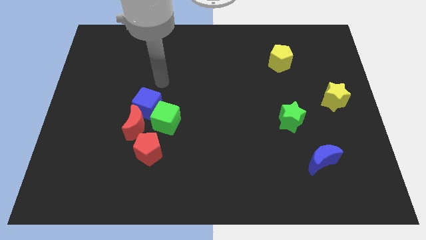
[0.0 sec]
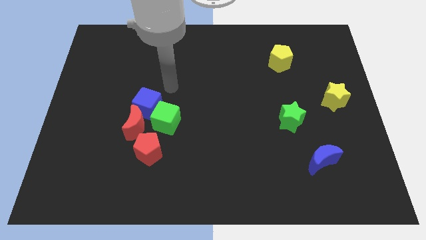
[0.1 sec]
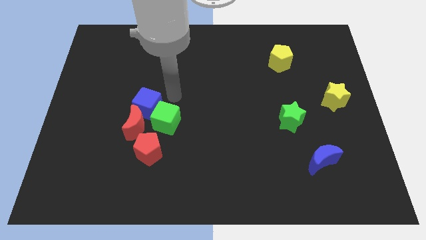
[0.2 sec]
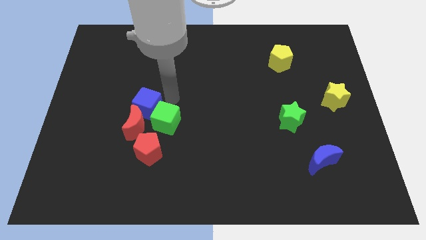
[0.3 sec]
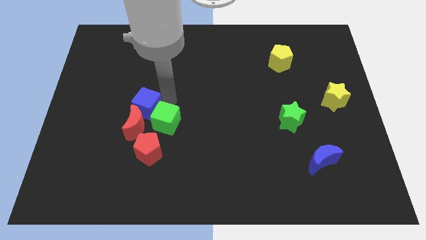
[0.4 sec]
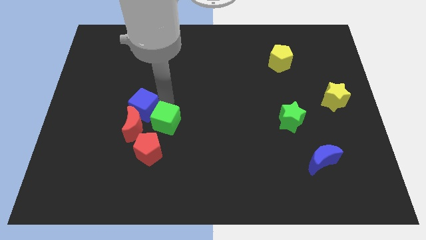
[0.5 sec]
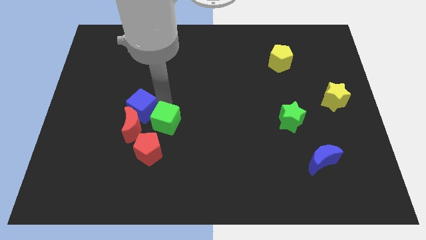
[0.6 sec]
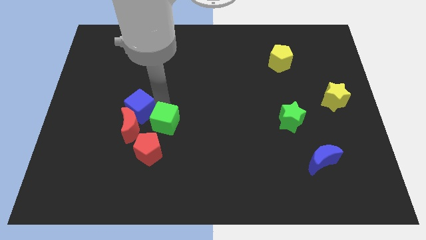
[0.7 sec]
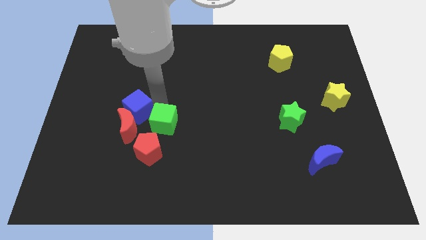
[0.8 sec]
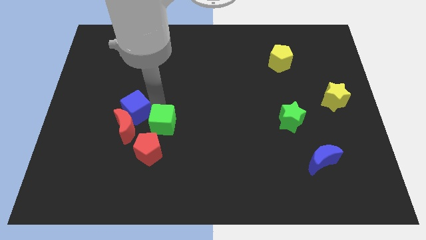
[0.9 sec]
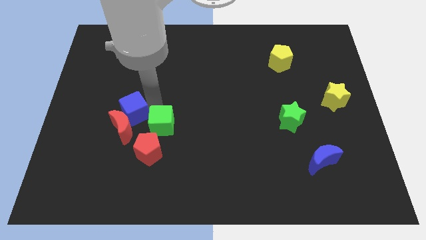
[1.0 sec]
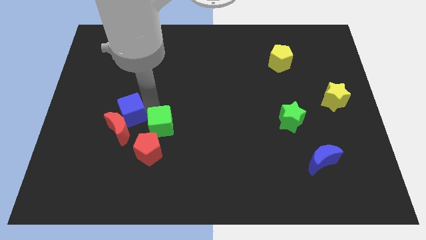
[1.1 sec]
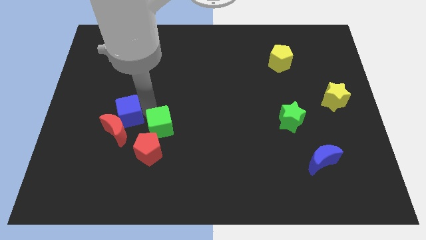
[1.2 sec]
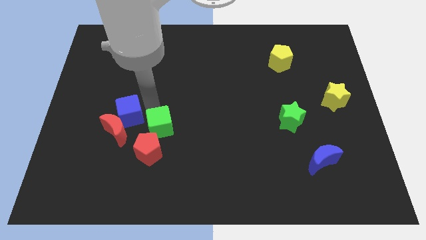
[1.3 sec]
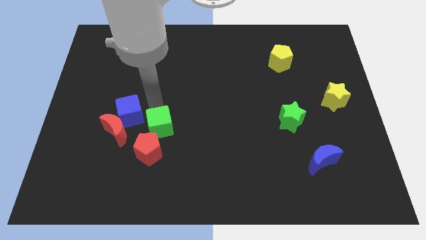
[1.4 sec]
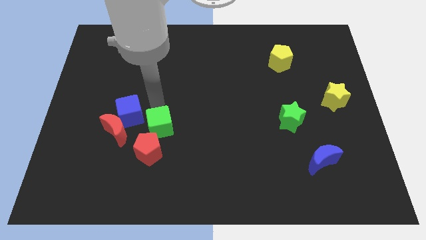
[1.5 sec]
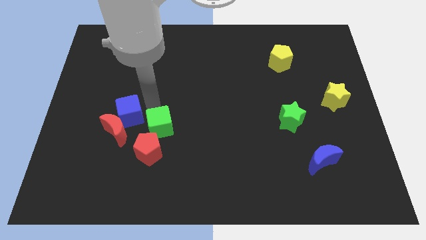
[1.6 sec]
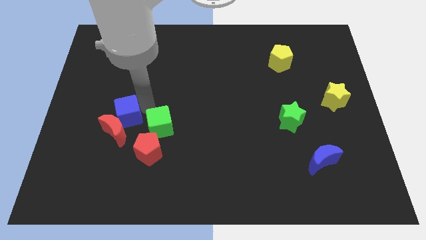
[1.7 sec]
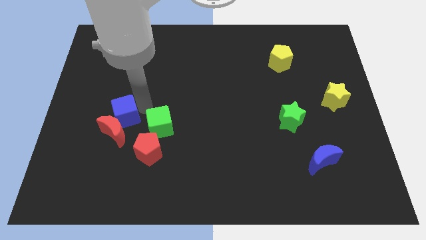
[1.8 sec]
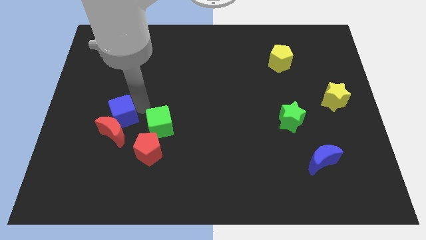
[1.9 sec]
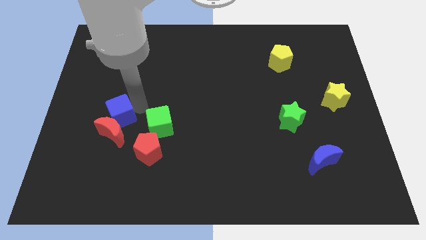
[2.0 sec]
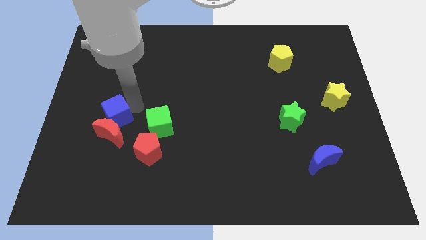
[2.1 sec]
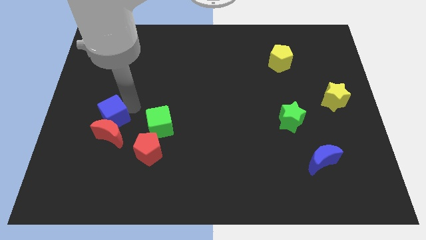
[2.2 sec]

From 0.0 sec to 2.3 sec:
slide the blue cube a little diagonally down and to the left

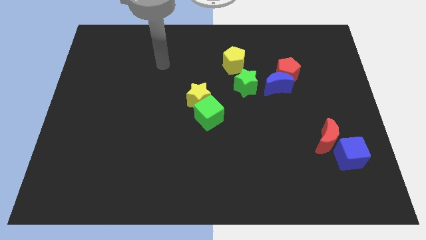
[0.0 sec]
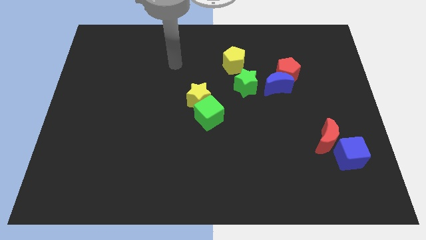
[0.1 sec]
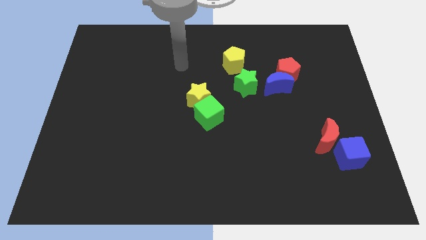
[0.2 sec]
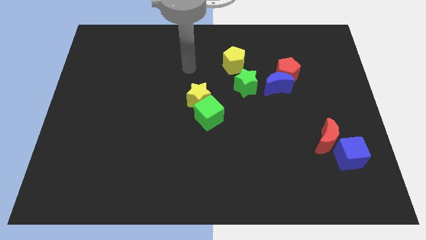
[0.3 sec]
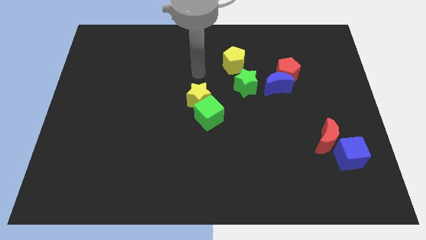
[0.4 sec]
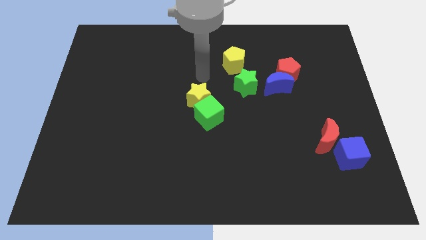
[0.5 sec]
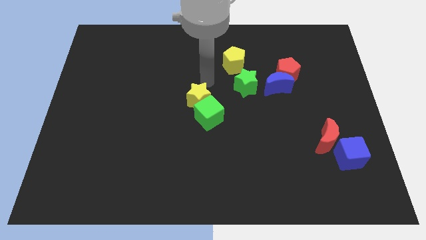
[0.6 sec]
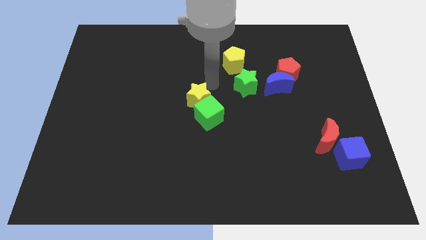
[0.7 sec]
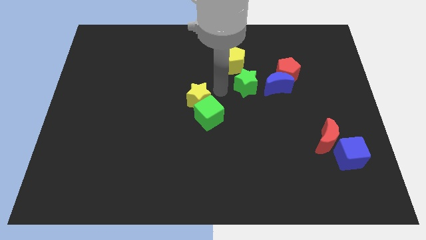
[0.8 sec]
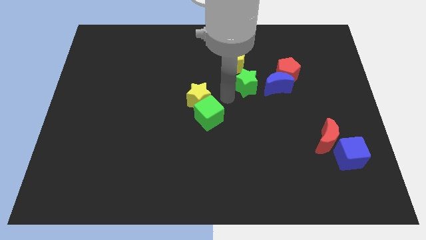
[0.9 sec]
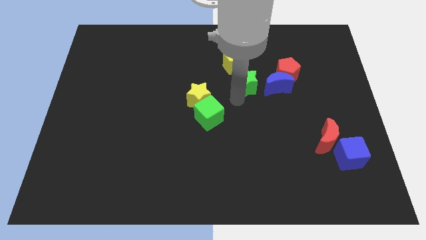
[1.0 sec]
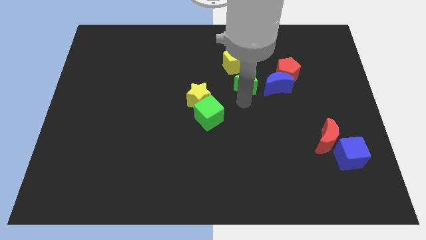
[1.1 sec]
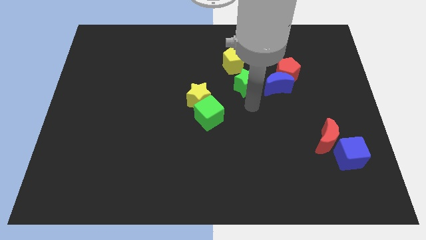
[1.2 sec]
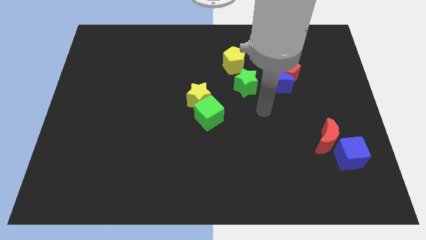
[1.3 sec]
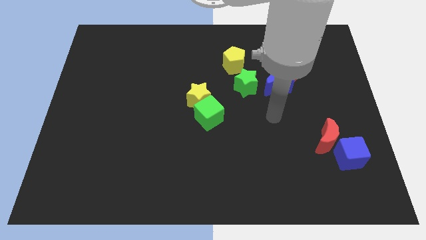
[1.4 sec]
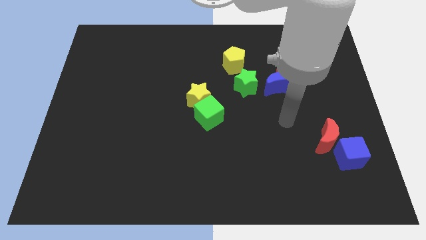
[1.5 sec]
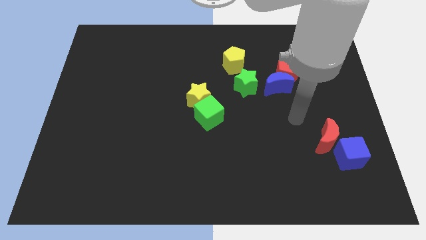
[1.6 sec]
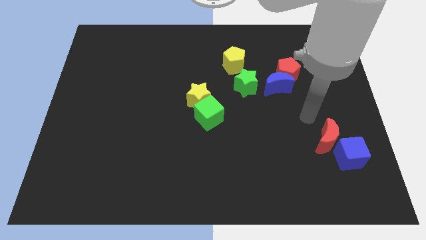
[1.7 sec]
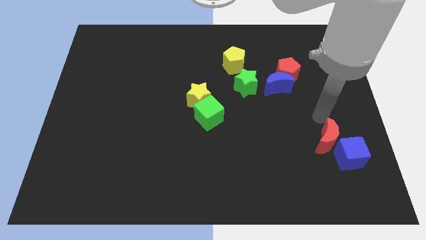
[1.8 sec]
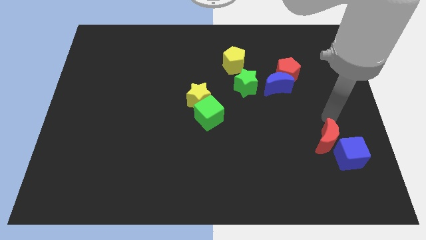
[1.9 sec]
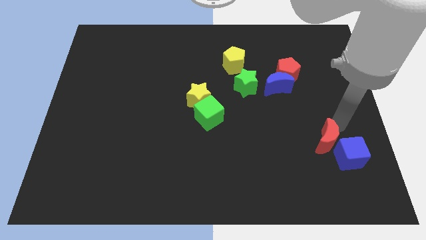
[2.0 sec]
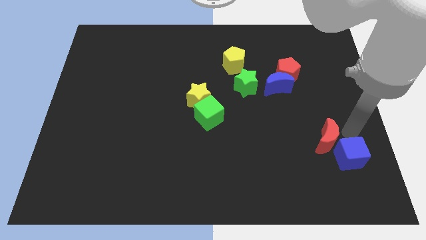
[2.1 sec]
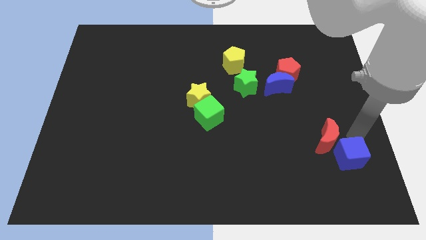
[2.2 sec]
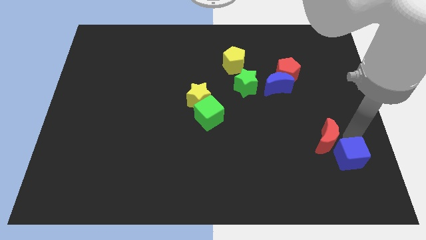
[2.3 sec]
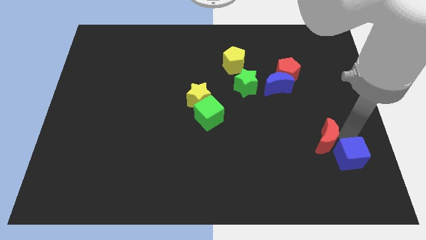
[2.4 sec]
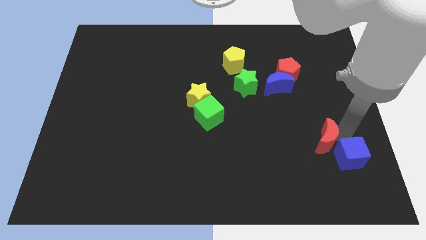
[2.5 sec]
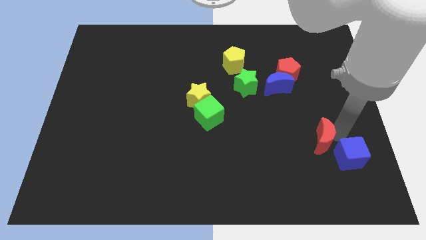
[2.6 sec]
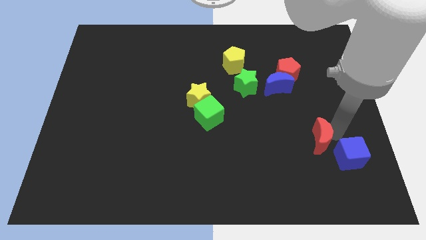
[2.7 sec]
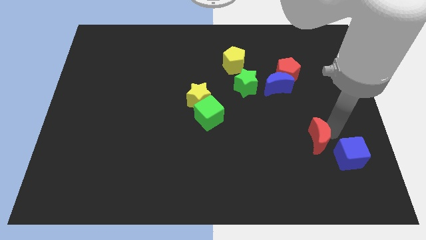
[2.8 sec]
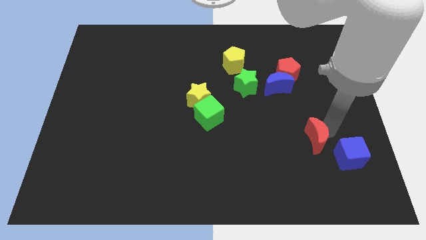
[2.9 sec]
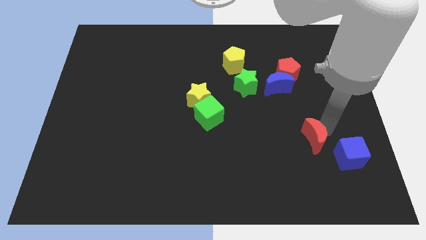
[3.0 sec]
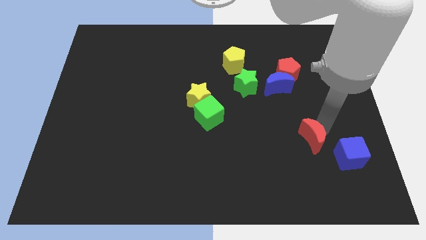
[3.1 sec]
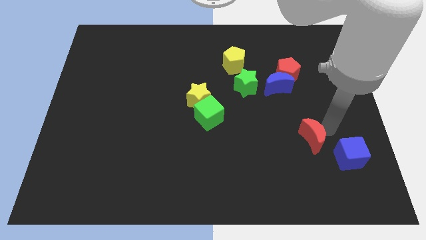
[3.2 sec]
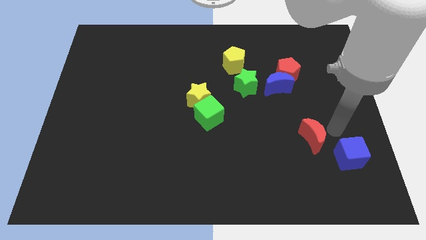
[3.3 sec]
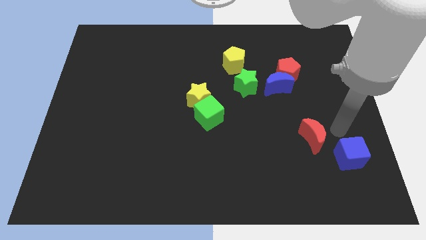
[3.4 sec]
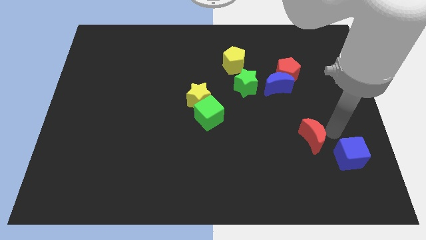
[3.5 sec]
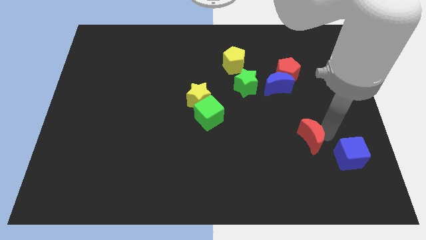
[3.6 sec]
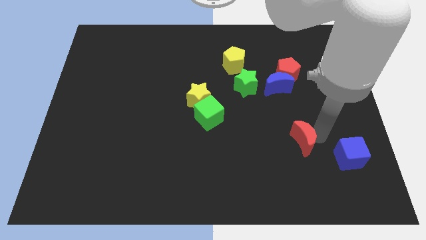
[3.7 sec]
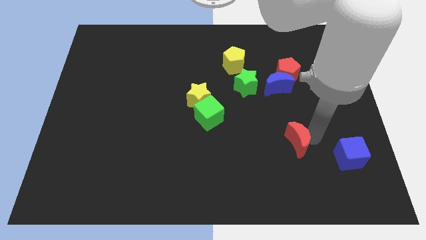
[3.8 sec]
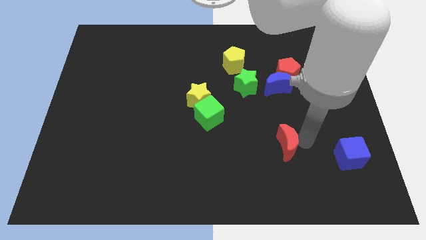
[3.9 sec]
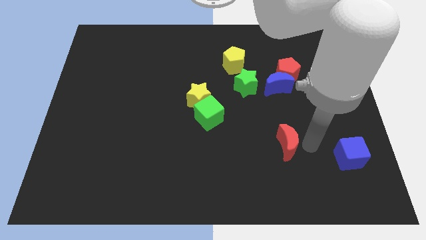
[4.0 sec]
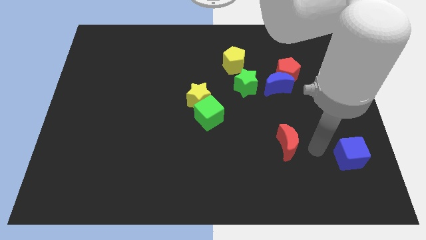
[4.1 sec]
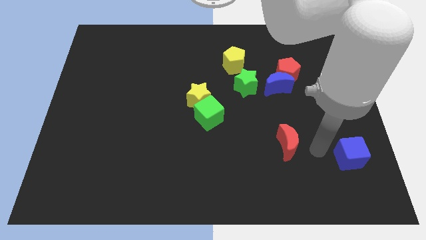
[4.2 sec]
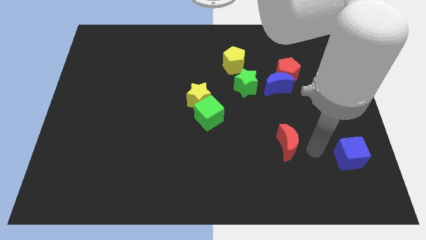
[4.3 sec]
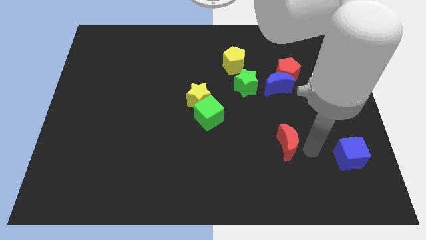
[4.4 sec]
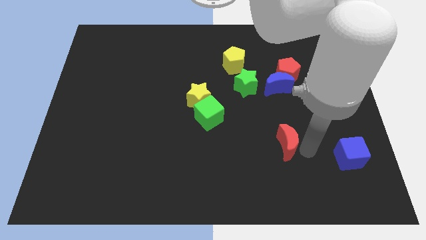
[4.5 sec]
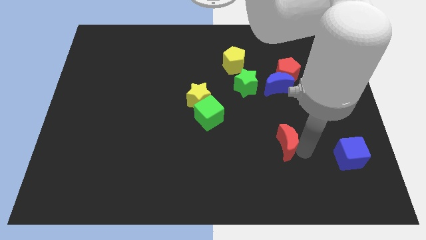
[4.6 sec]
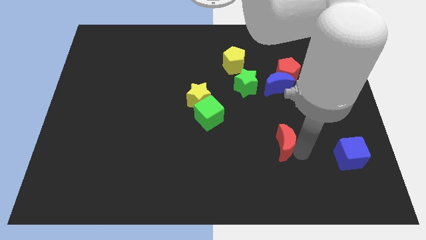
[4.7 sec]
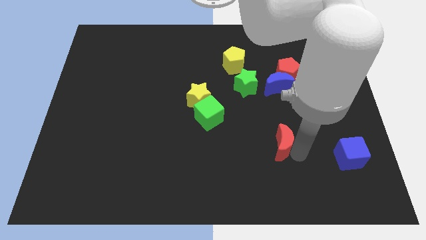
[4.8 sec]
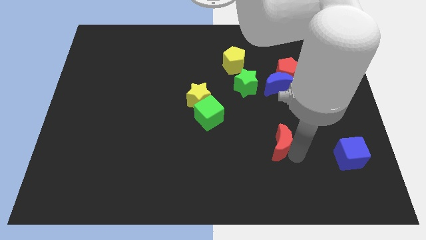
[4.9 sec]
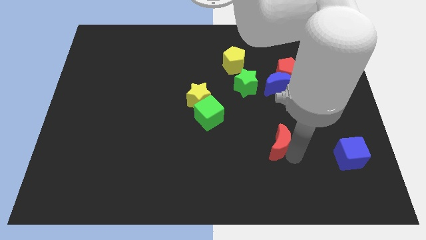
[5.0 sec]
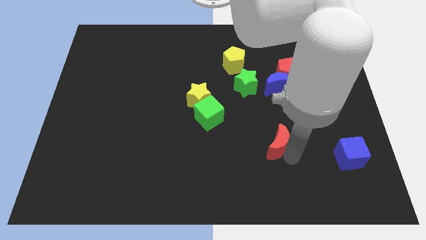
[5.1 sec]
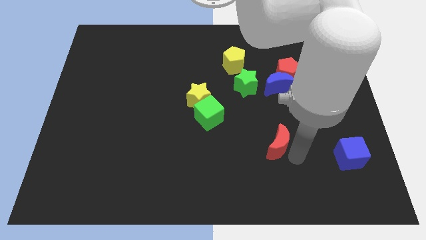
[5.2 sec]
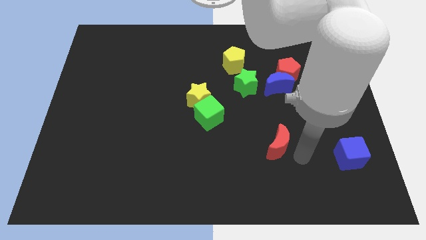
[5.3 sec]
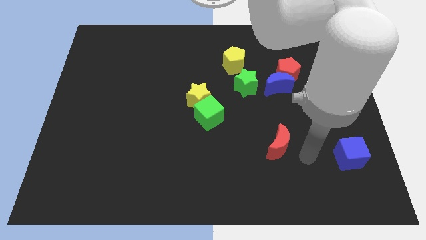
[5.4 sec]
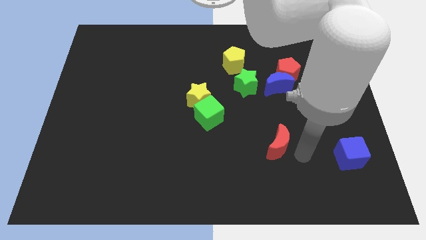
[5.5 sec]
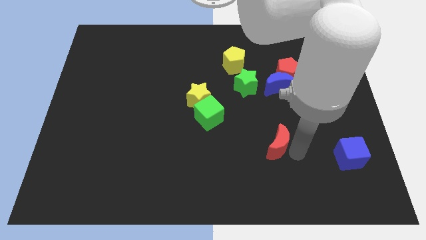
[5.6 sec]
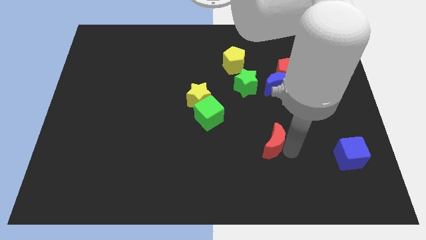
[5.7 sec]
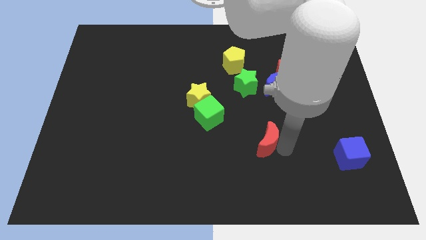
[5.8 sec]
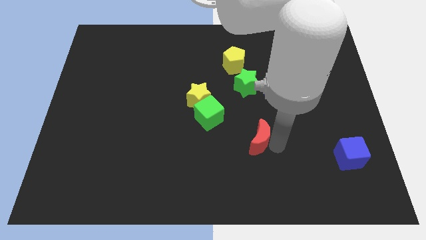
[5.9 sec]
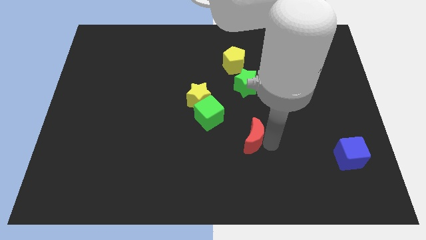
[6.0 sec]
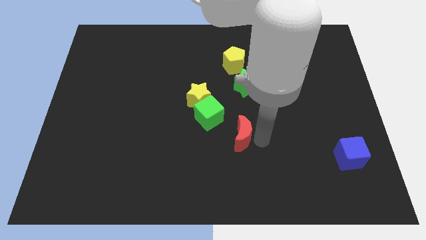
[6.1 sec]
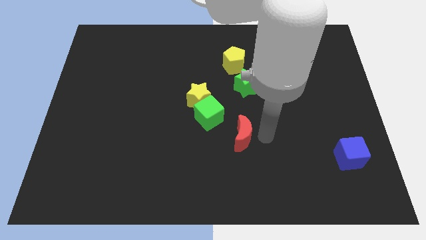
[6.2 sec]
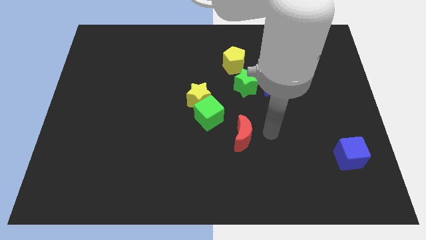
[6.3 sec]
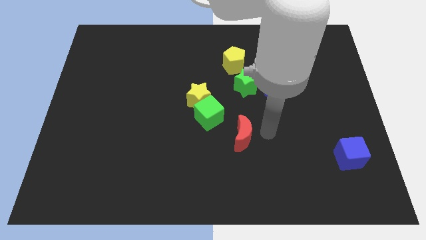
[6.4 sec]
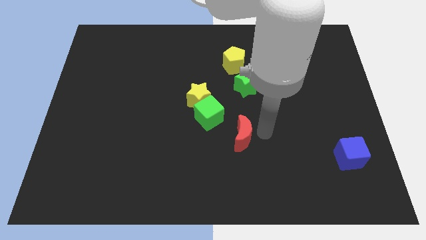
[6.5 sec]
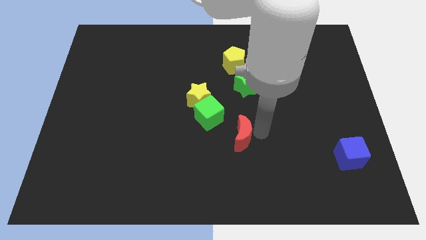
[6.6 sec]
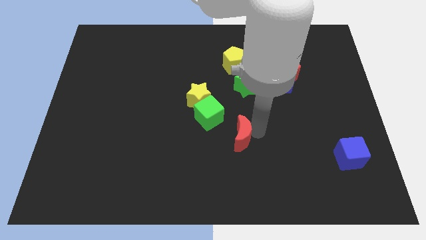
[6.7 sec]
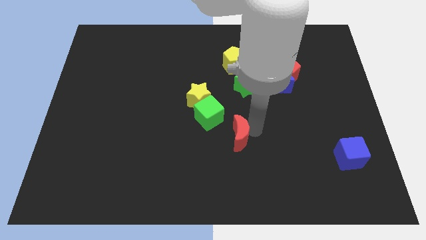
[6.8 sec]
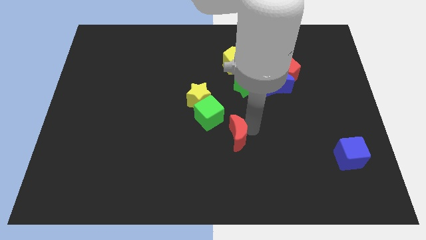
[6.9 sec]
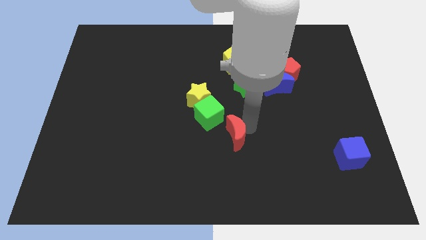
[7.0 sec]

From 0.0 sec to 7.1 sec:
slide the red moon to the left
